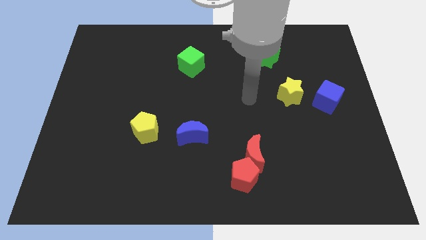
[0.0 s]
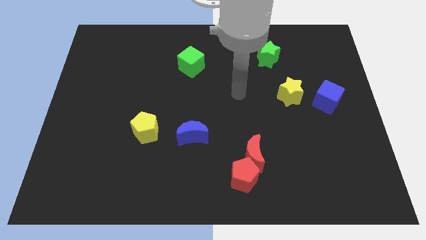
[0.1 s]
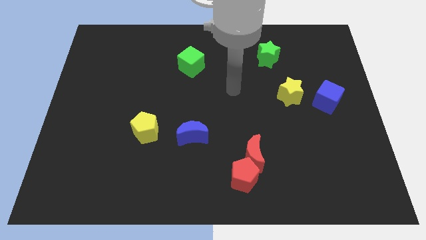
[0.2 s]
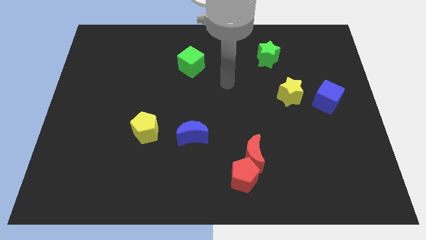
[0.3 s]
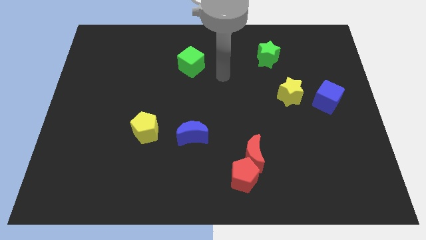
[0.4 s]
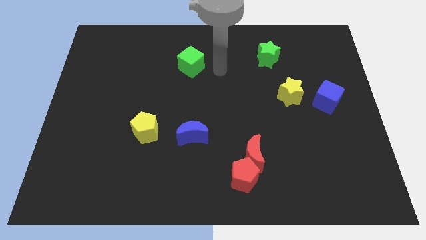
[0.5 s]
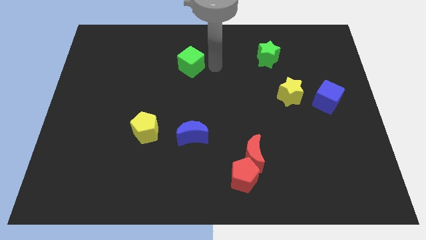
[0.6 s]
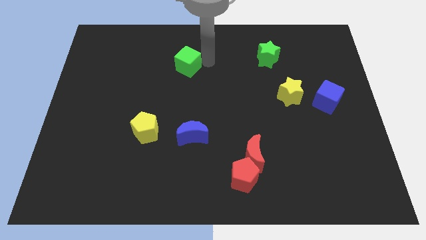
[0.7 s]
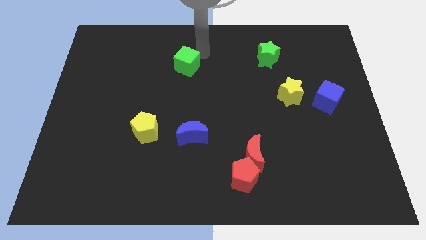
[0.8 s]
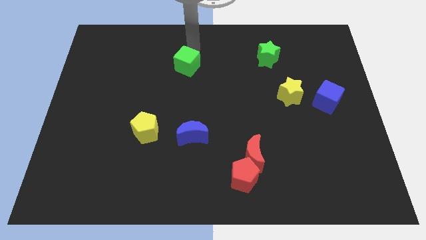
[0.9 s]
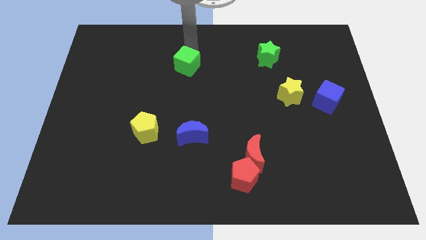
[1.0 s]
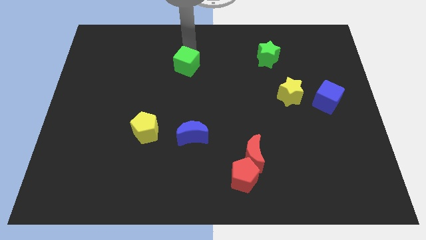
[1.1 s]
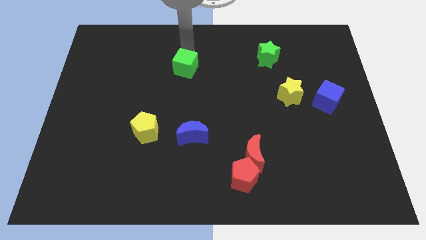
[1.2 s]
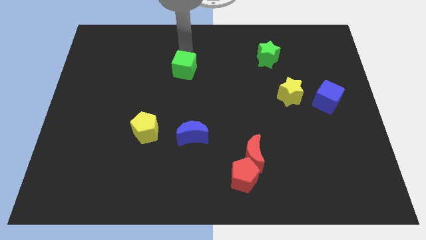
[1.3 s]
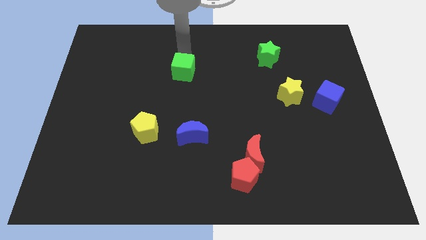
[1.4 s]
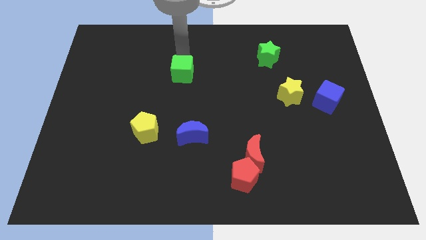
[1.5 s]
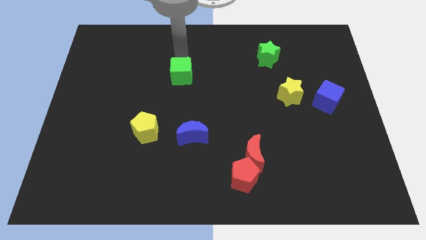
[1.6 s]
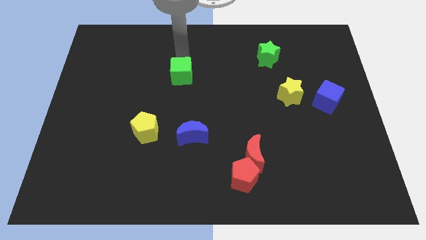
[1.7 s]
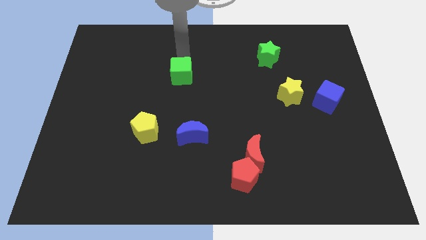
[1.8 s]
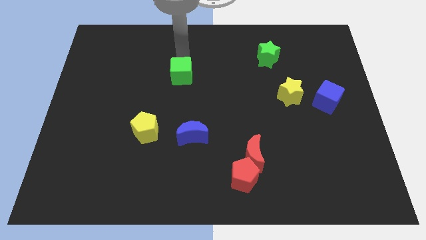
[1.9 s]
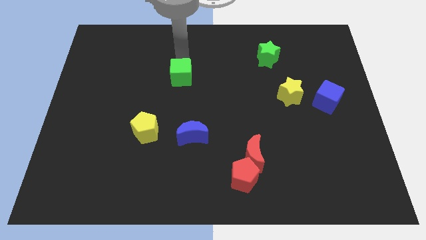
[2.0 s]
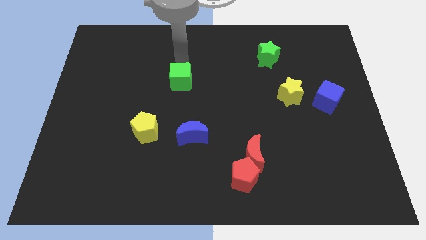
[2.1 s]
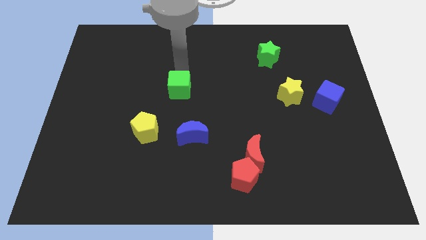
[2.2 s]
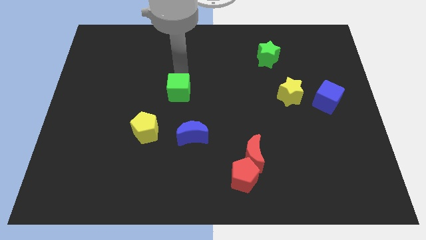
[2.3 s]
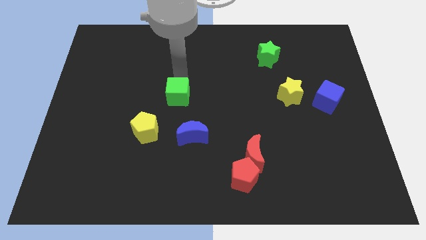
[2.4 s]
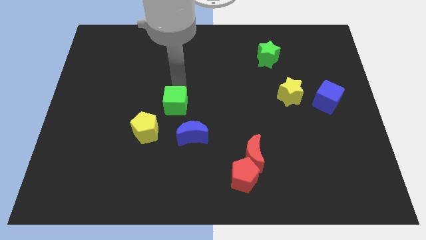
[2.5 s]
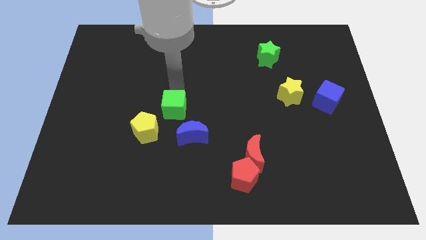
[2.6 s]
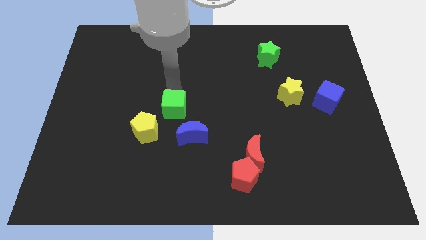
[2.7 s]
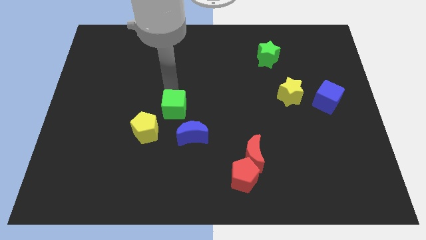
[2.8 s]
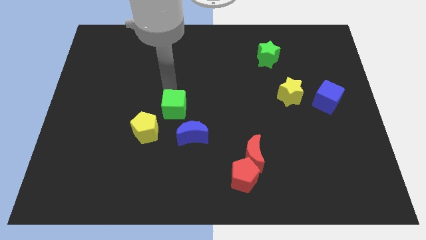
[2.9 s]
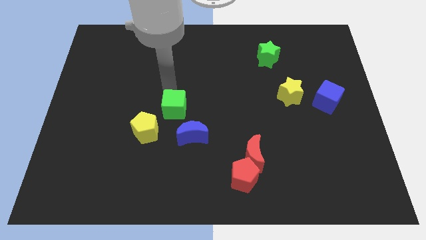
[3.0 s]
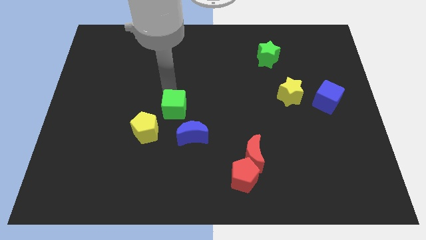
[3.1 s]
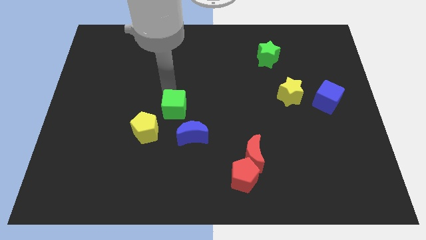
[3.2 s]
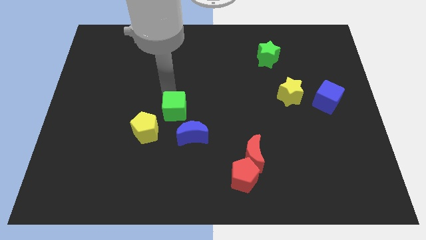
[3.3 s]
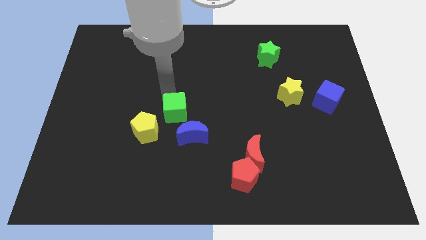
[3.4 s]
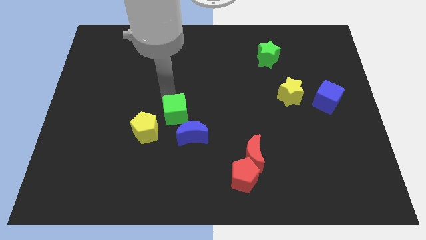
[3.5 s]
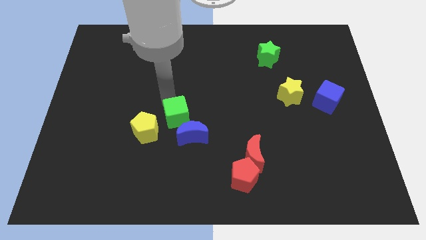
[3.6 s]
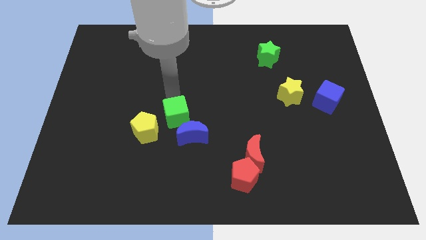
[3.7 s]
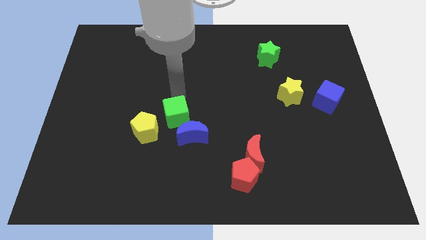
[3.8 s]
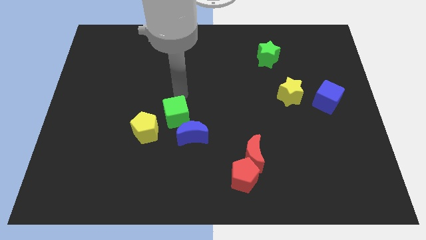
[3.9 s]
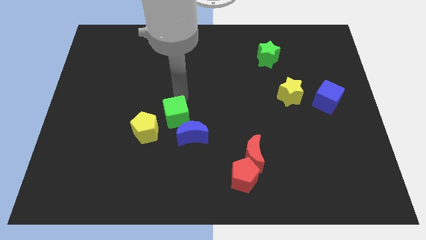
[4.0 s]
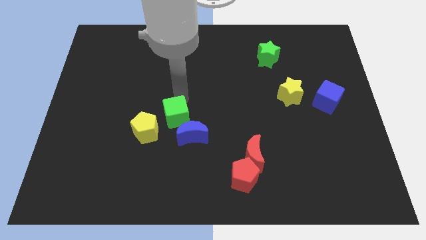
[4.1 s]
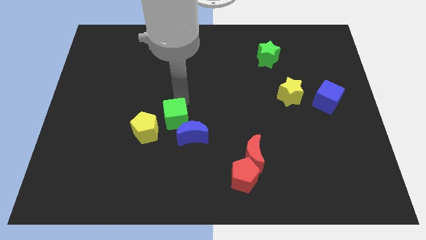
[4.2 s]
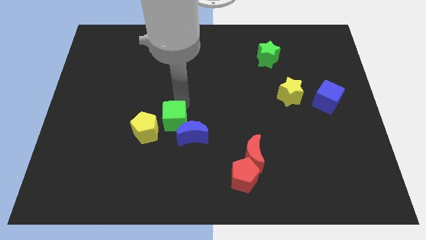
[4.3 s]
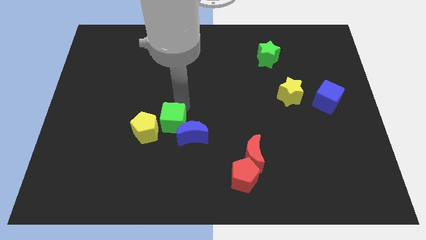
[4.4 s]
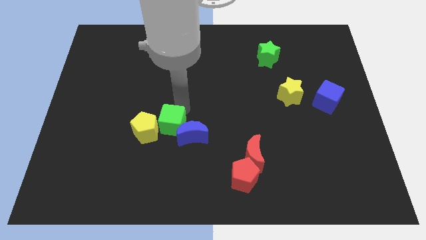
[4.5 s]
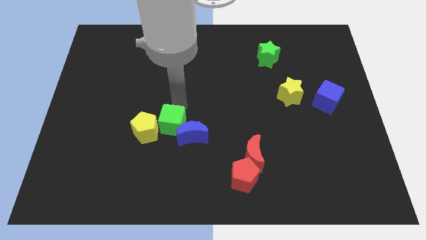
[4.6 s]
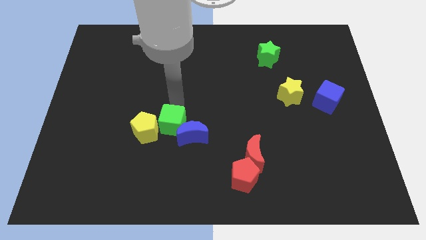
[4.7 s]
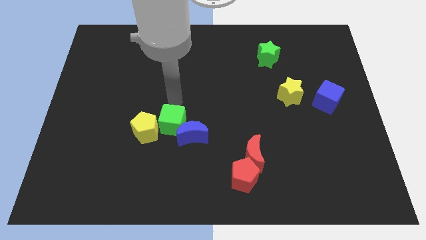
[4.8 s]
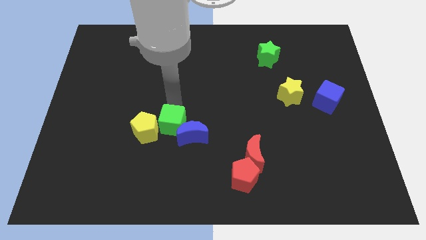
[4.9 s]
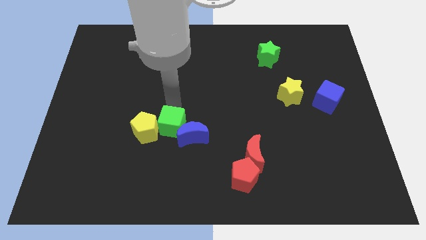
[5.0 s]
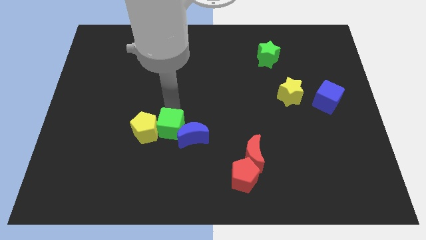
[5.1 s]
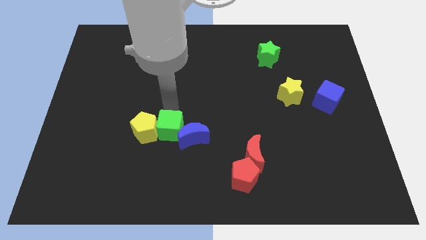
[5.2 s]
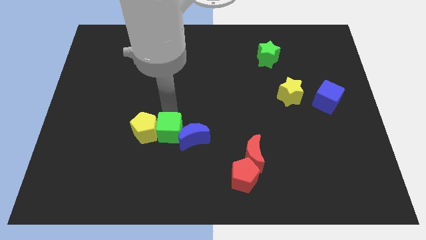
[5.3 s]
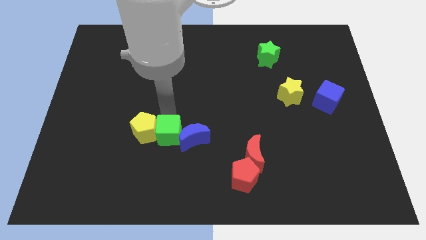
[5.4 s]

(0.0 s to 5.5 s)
put the green cube diagonally down and to the left of the blue moon

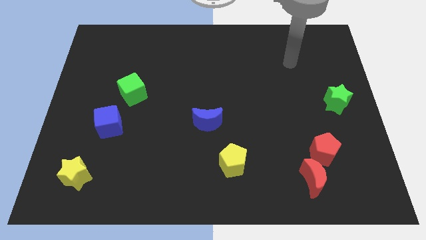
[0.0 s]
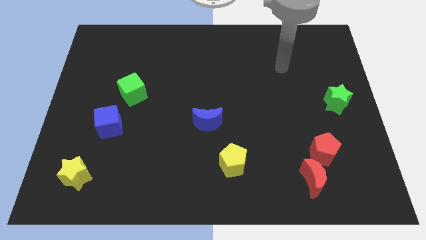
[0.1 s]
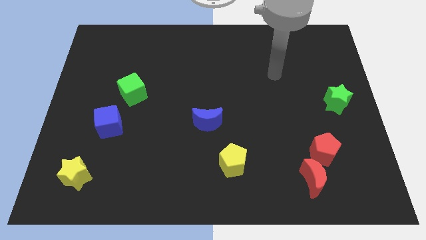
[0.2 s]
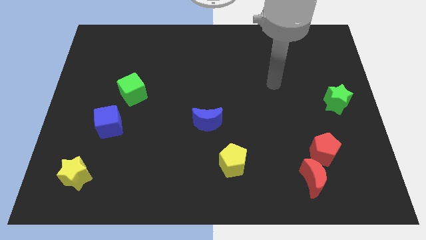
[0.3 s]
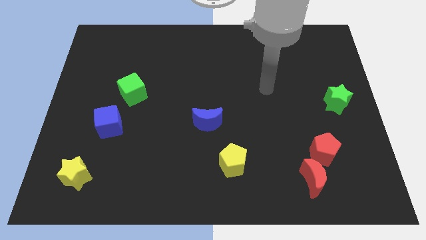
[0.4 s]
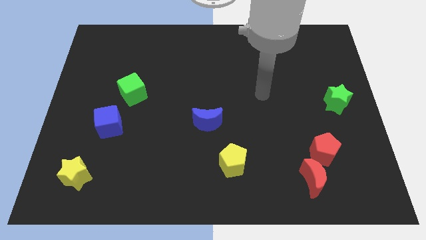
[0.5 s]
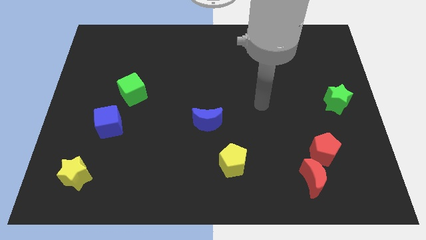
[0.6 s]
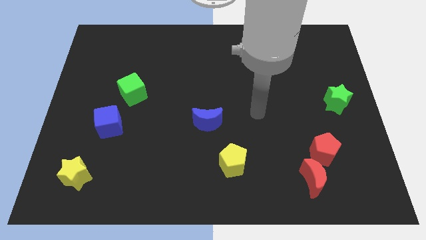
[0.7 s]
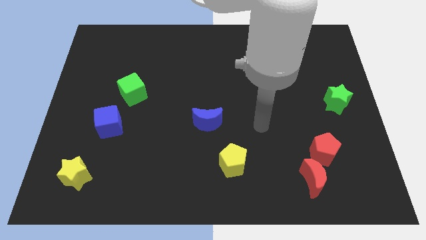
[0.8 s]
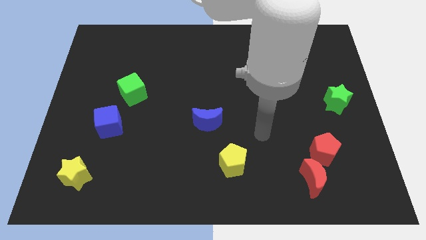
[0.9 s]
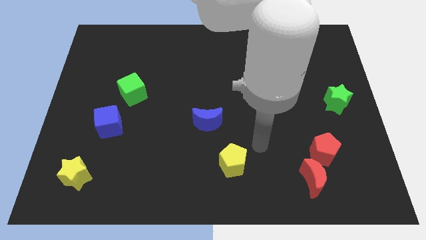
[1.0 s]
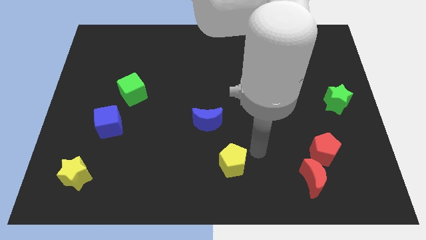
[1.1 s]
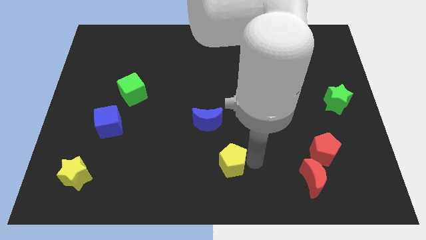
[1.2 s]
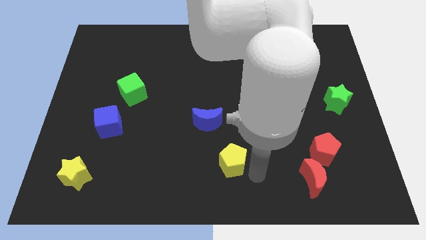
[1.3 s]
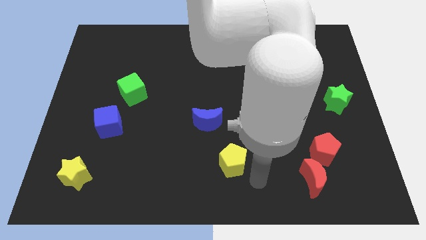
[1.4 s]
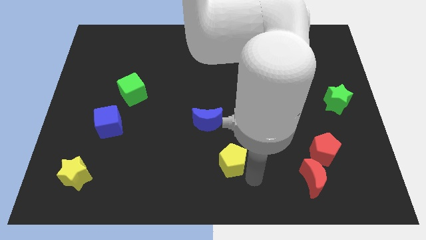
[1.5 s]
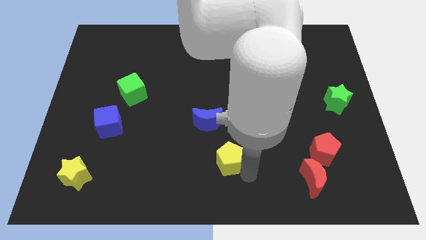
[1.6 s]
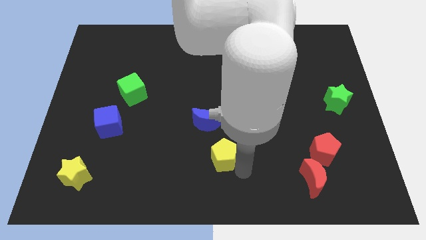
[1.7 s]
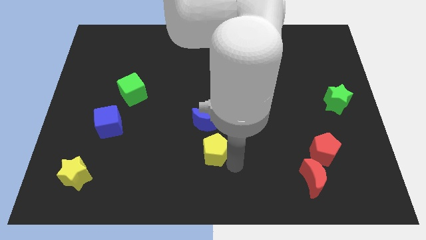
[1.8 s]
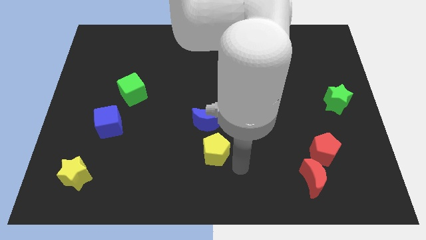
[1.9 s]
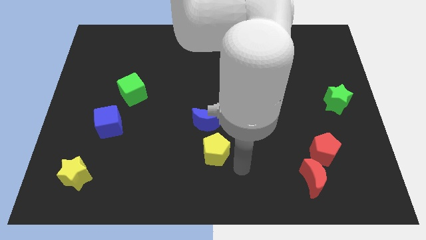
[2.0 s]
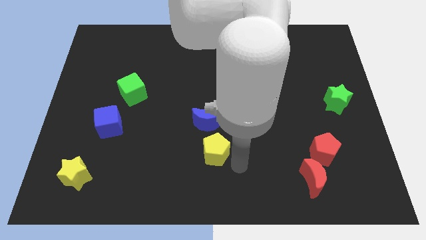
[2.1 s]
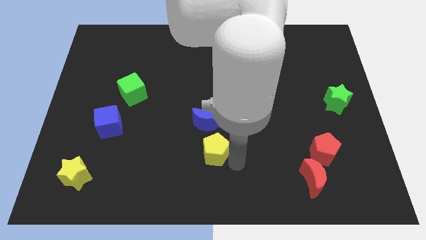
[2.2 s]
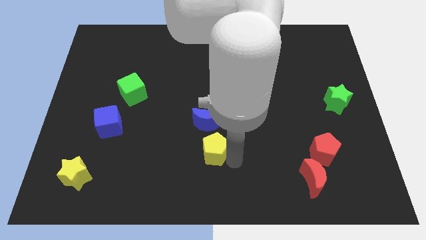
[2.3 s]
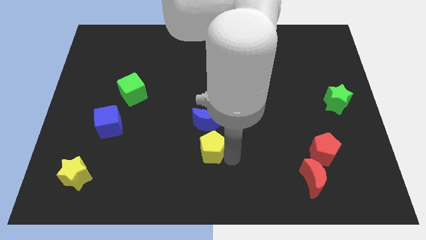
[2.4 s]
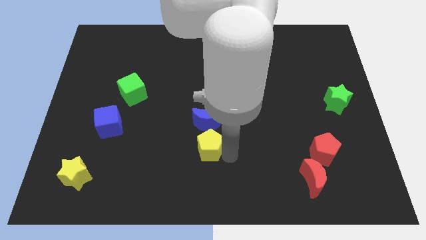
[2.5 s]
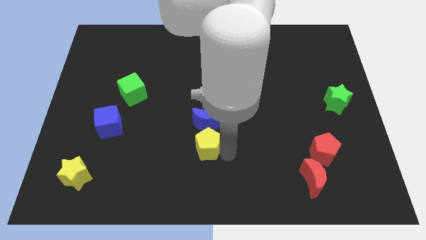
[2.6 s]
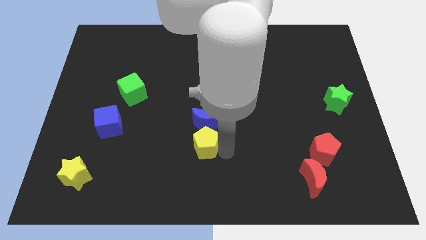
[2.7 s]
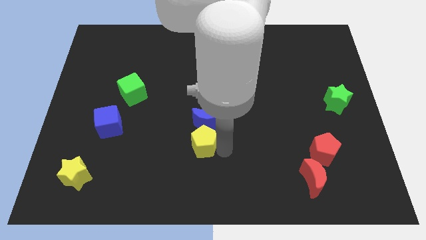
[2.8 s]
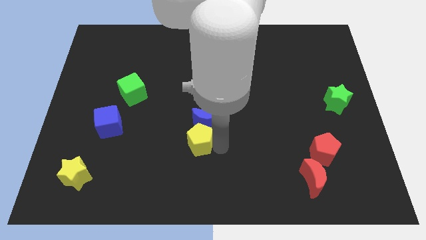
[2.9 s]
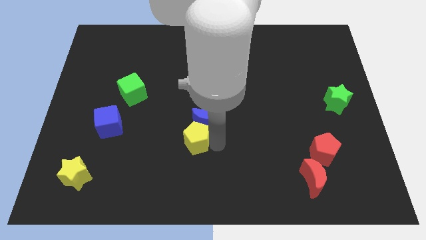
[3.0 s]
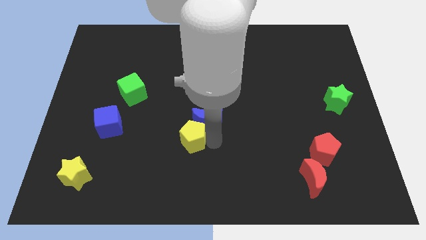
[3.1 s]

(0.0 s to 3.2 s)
put the yellow pentagon left of the blue moon
